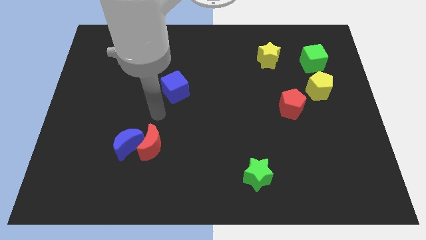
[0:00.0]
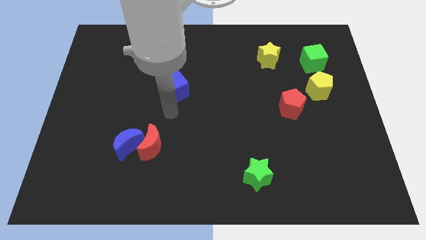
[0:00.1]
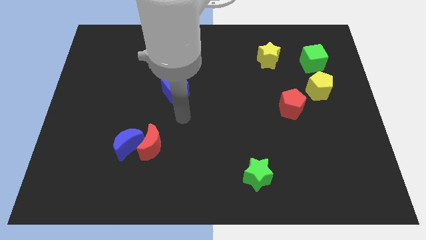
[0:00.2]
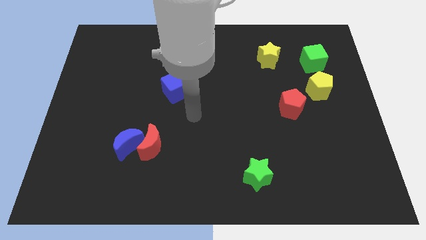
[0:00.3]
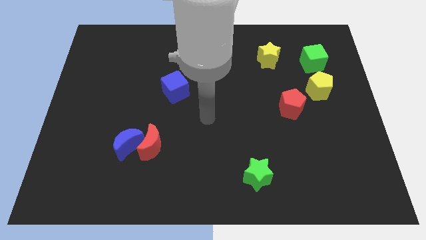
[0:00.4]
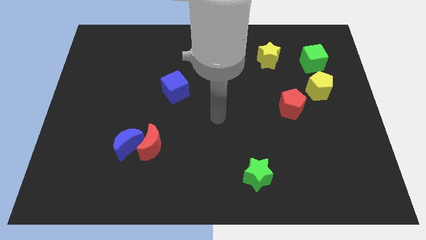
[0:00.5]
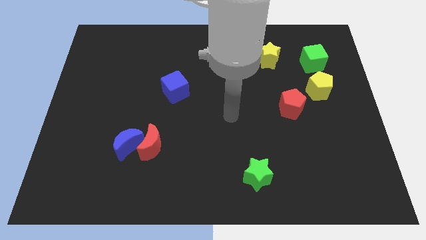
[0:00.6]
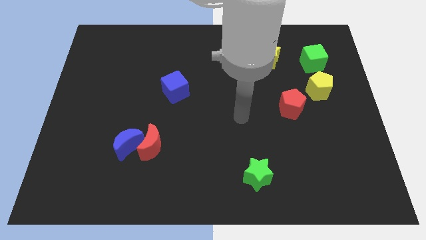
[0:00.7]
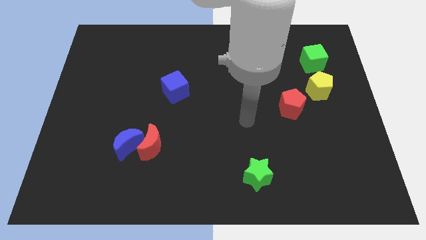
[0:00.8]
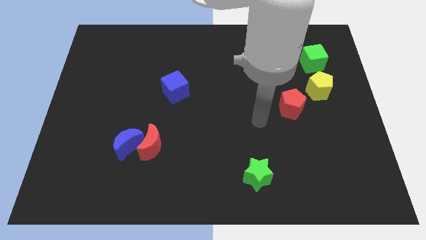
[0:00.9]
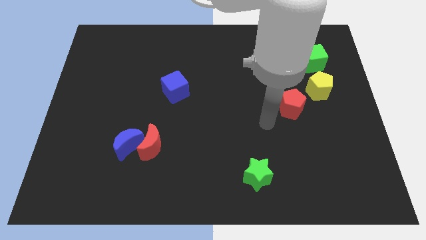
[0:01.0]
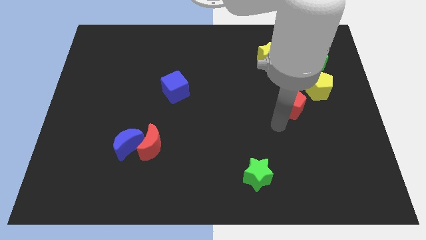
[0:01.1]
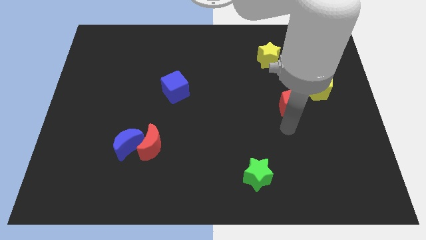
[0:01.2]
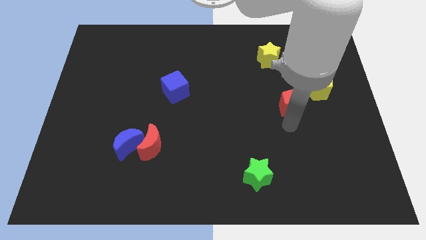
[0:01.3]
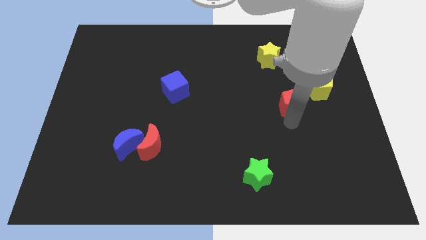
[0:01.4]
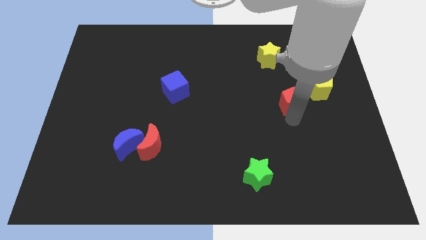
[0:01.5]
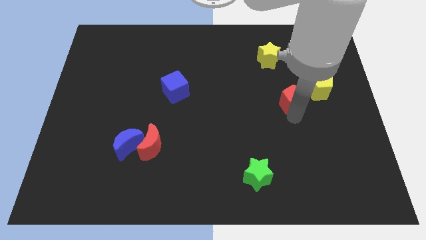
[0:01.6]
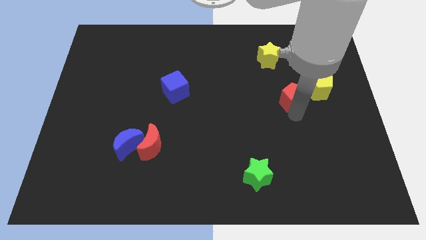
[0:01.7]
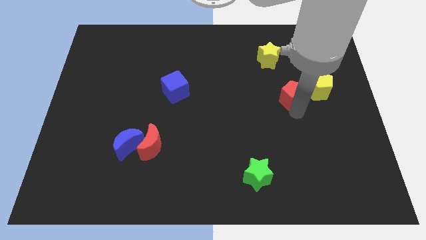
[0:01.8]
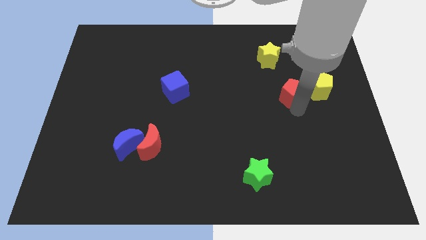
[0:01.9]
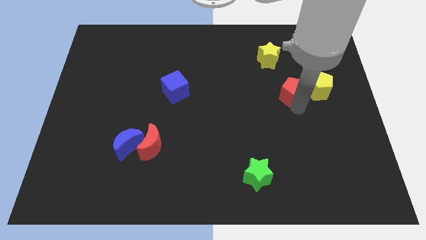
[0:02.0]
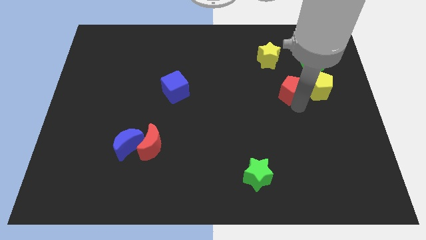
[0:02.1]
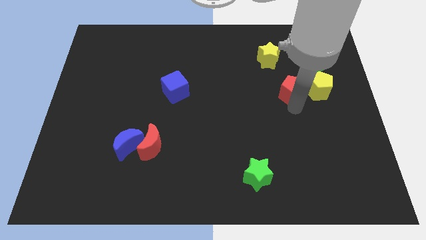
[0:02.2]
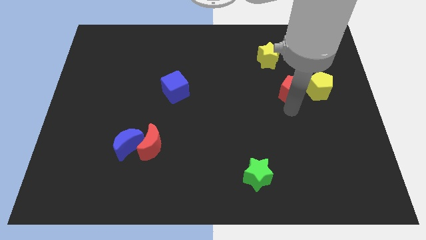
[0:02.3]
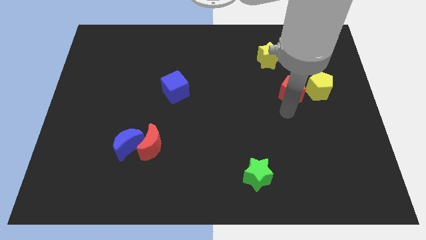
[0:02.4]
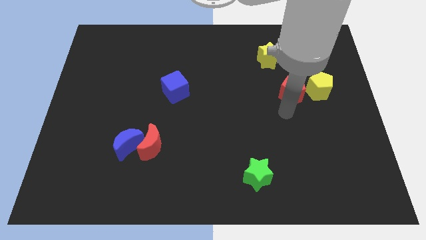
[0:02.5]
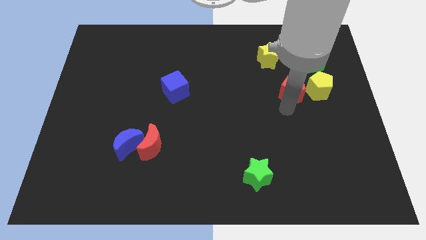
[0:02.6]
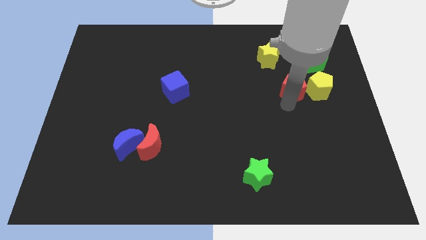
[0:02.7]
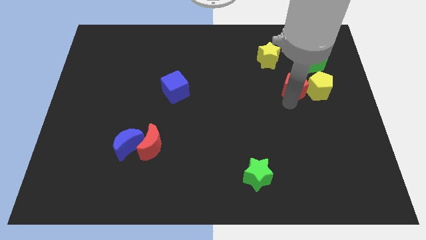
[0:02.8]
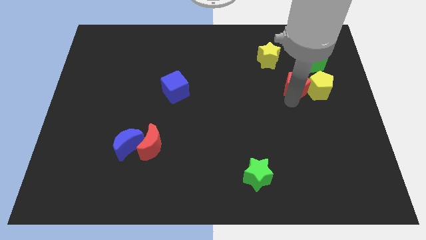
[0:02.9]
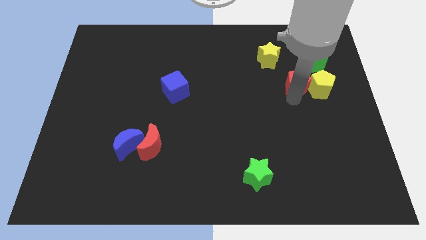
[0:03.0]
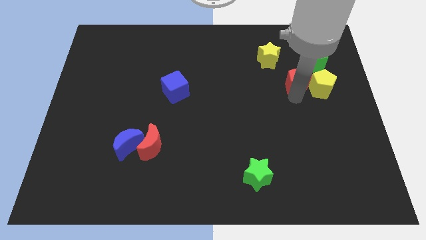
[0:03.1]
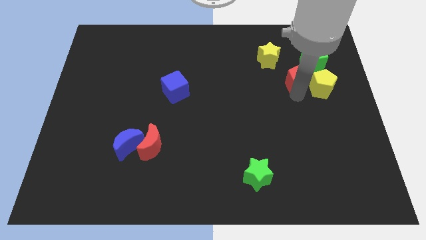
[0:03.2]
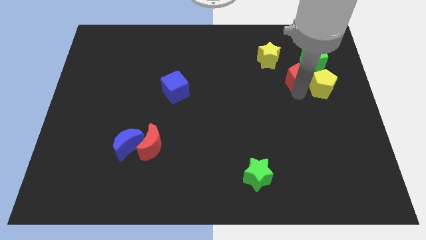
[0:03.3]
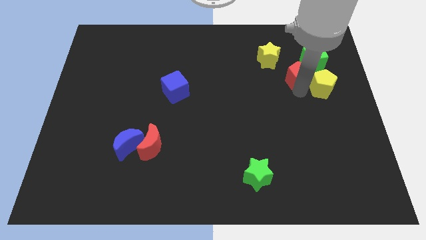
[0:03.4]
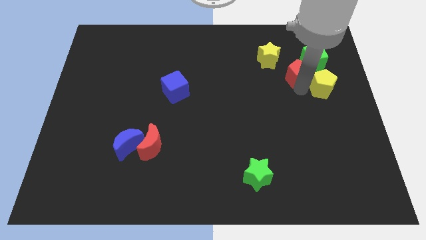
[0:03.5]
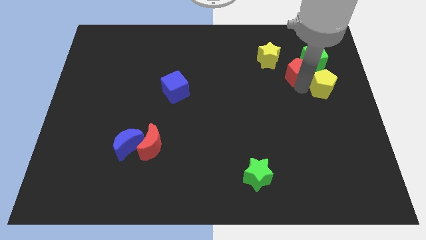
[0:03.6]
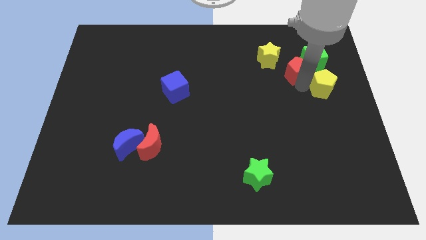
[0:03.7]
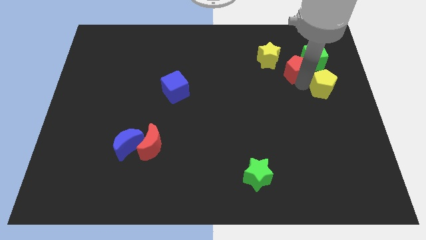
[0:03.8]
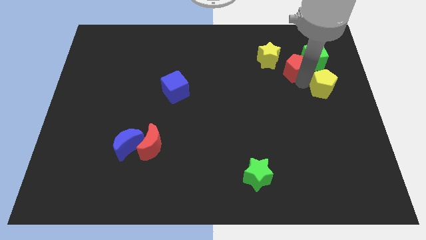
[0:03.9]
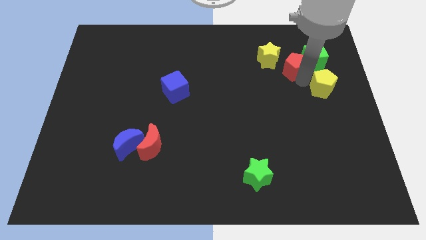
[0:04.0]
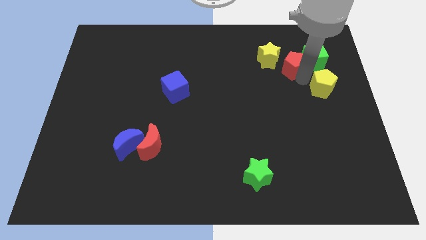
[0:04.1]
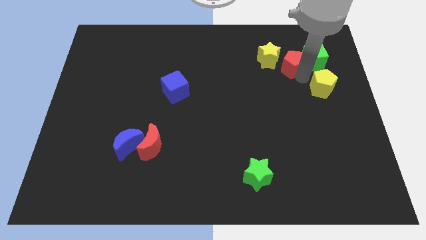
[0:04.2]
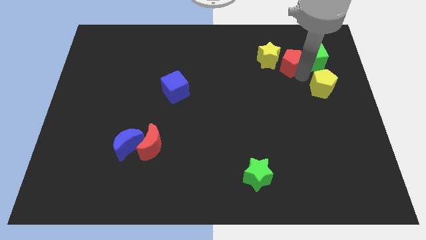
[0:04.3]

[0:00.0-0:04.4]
move the red pentagon next to the yellow star

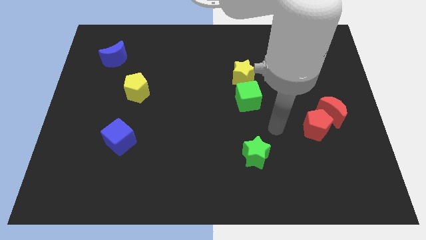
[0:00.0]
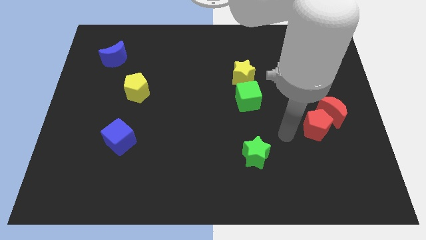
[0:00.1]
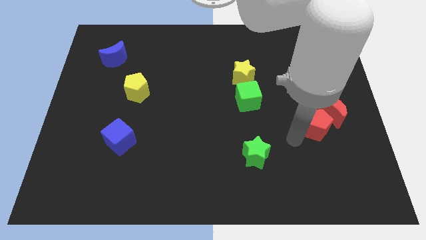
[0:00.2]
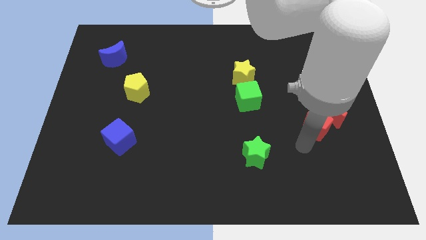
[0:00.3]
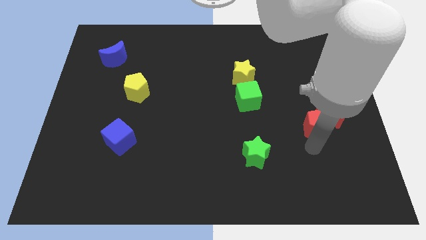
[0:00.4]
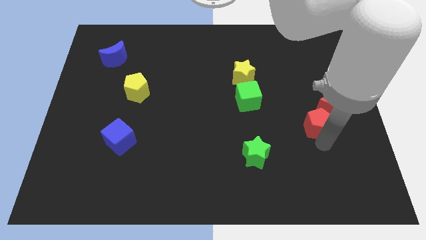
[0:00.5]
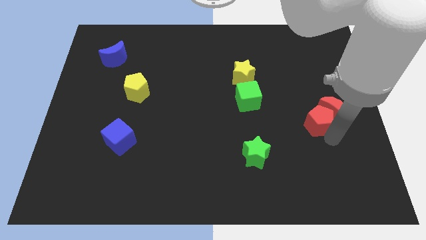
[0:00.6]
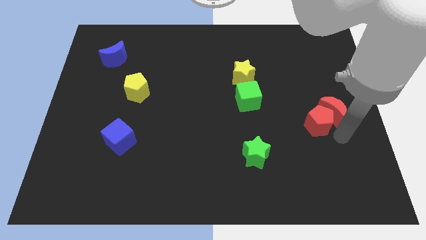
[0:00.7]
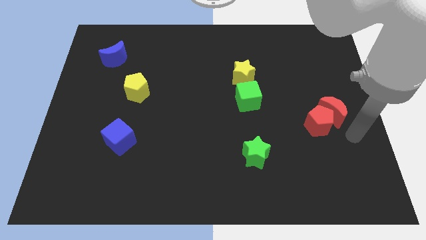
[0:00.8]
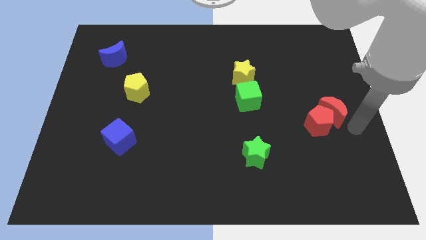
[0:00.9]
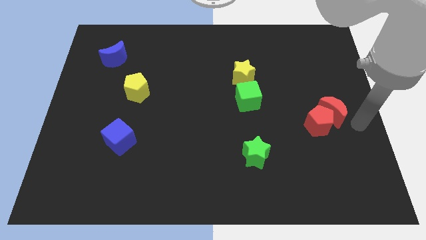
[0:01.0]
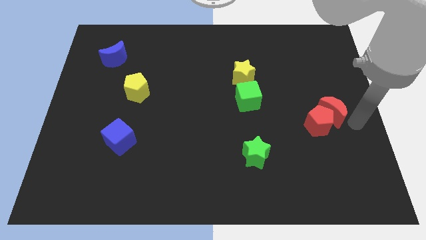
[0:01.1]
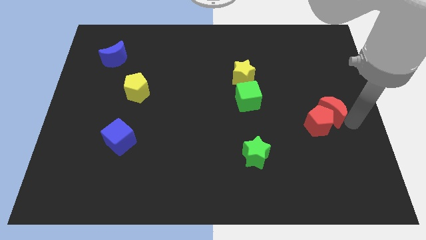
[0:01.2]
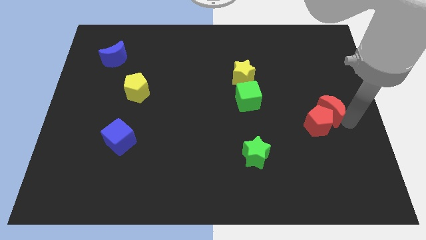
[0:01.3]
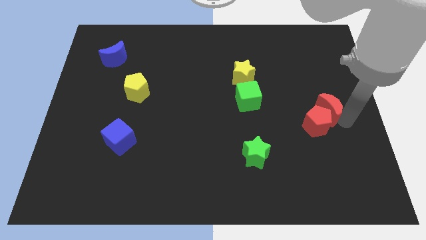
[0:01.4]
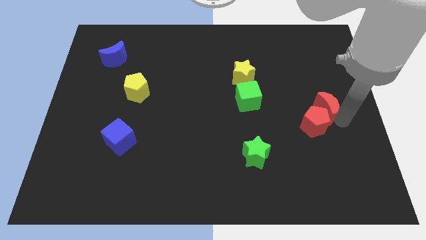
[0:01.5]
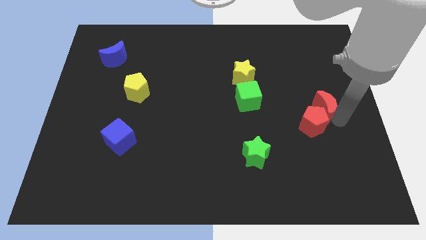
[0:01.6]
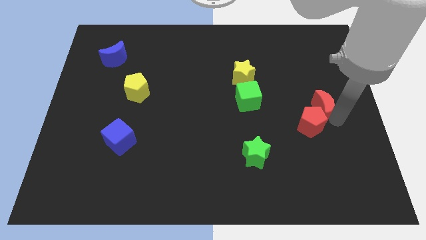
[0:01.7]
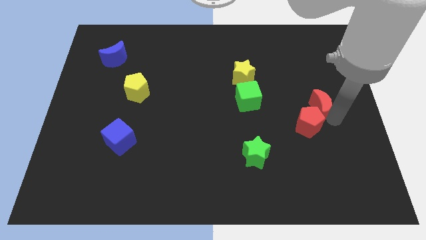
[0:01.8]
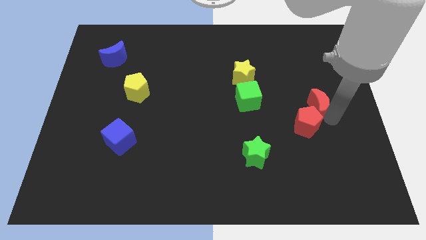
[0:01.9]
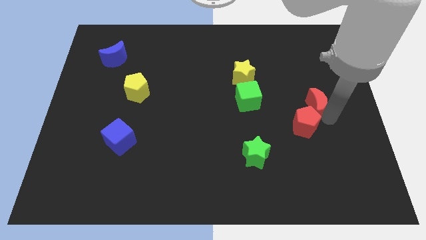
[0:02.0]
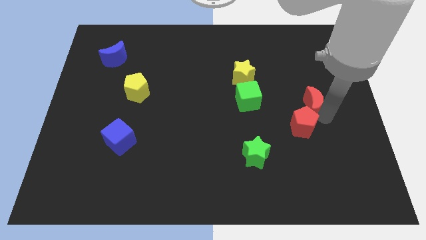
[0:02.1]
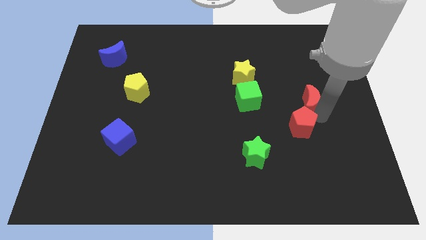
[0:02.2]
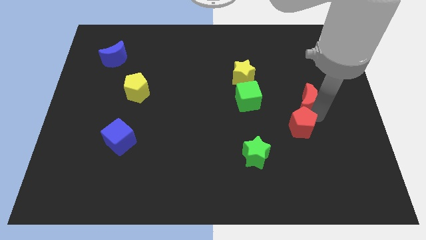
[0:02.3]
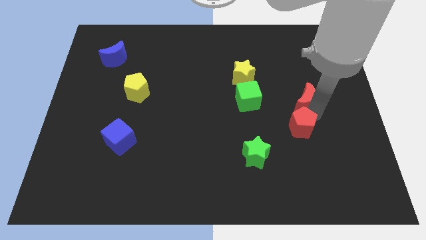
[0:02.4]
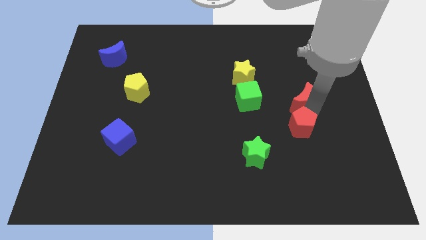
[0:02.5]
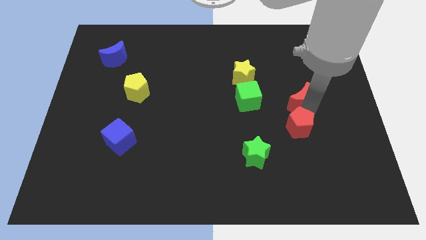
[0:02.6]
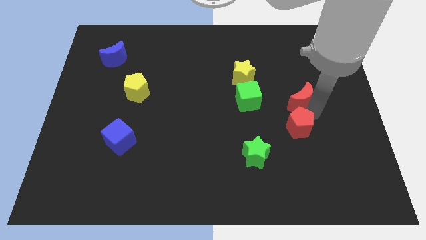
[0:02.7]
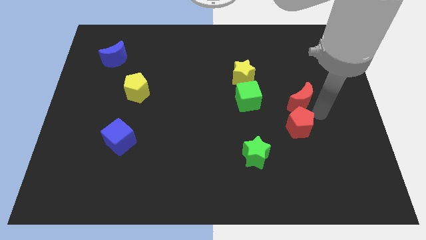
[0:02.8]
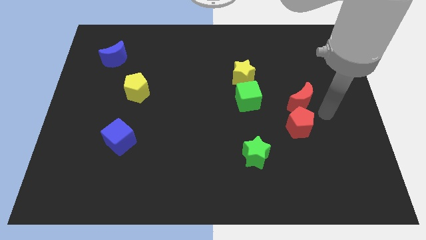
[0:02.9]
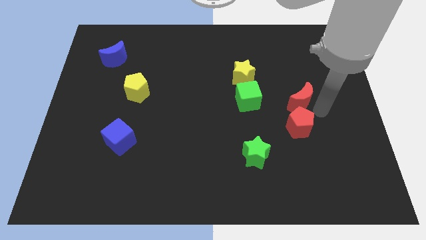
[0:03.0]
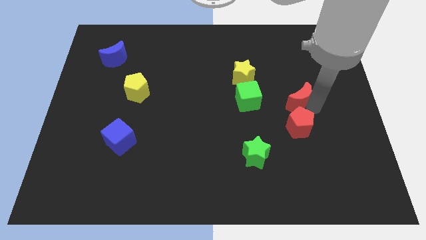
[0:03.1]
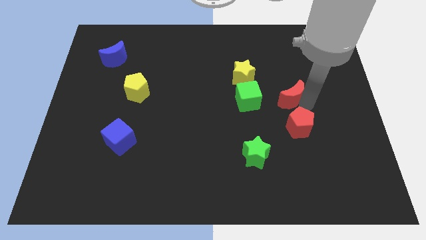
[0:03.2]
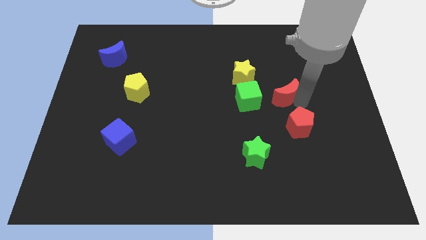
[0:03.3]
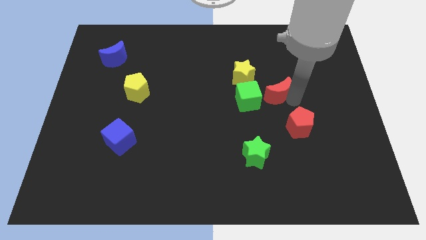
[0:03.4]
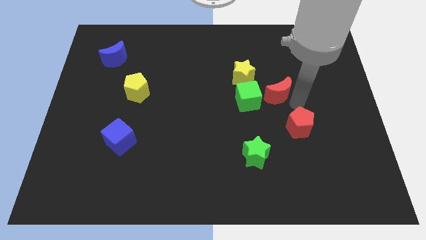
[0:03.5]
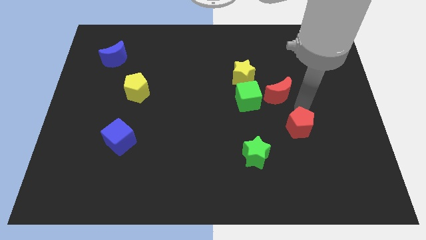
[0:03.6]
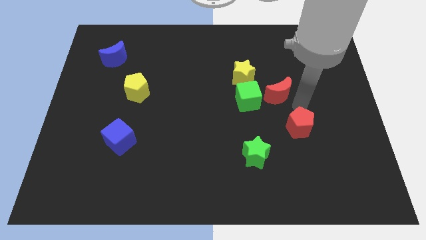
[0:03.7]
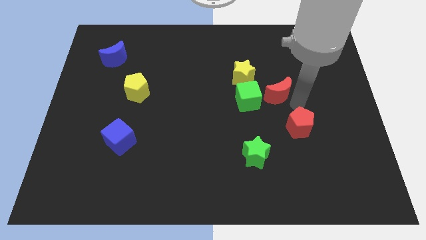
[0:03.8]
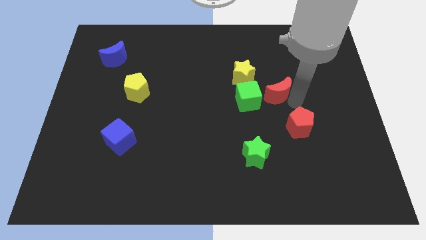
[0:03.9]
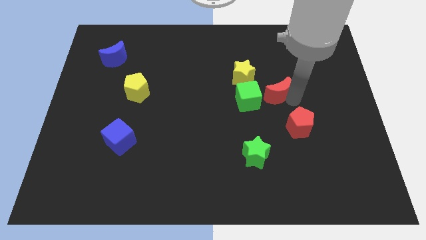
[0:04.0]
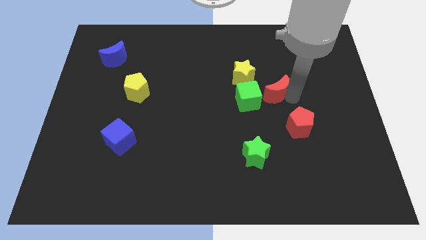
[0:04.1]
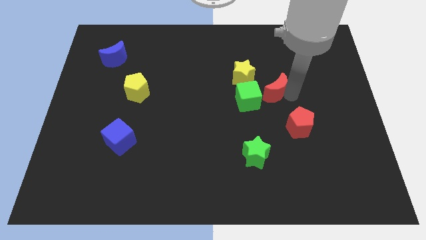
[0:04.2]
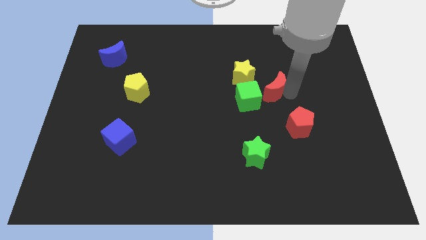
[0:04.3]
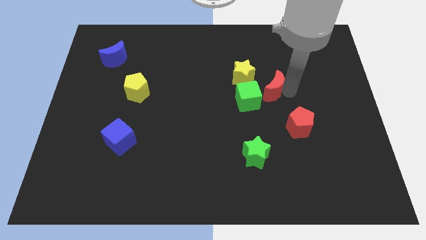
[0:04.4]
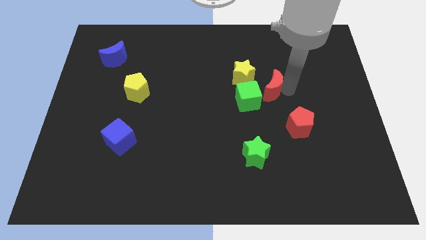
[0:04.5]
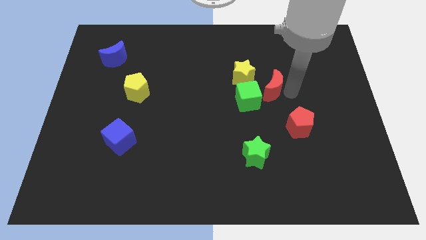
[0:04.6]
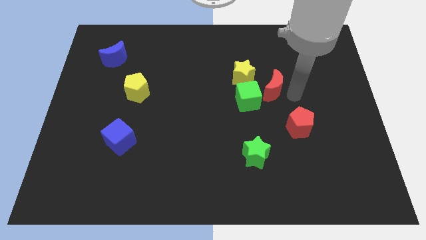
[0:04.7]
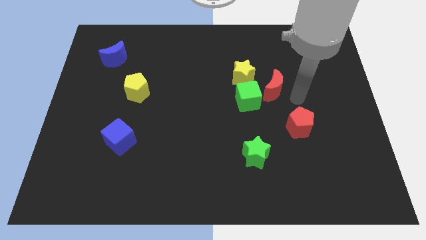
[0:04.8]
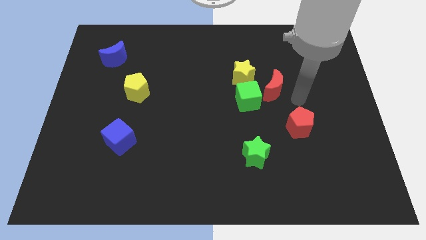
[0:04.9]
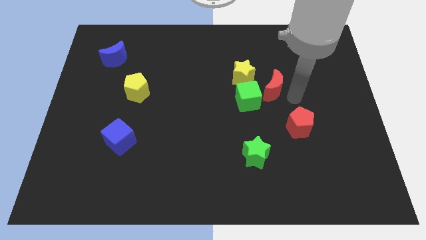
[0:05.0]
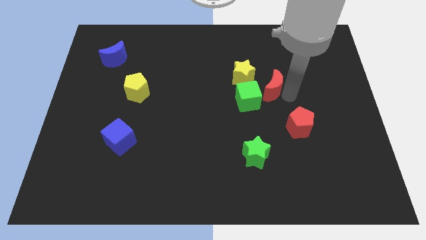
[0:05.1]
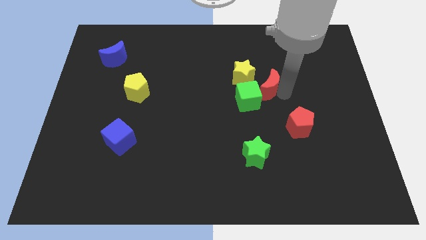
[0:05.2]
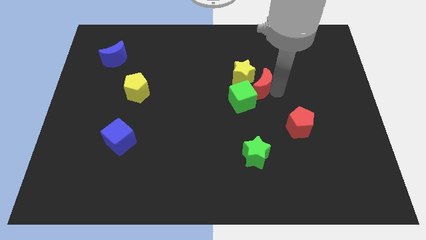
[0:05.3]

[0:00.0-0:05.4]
put the red moon towards the yellow star
